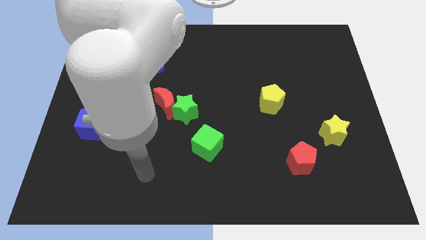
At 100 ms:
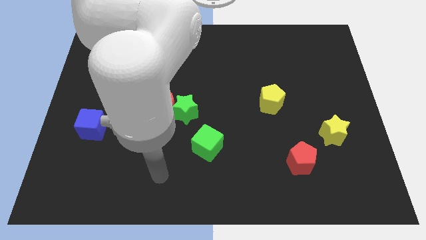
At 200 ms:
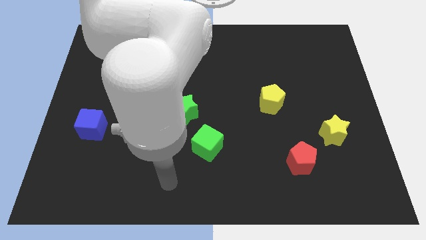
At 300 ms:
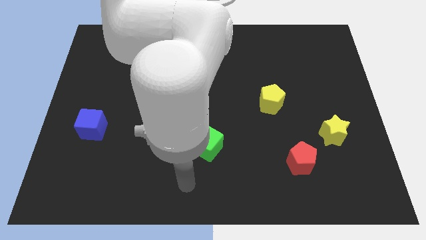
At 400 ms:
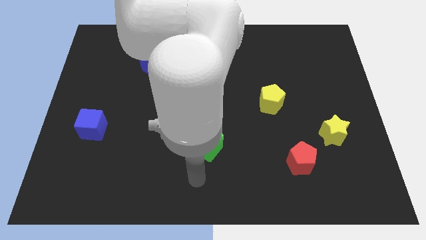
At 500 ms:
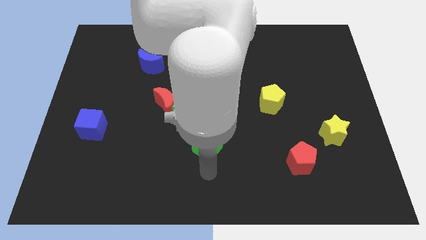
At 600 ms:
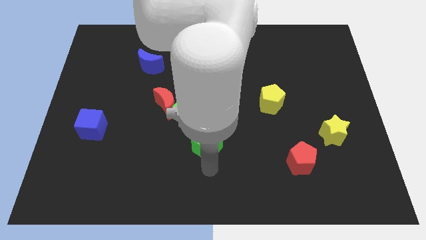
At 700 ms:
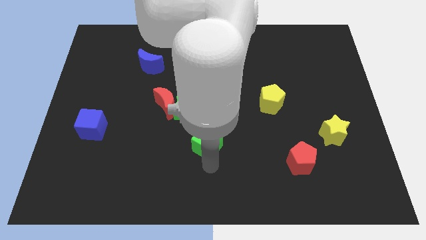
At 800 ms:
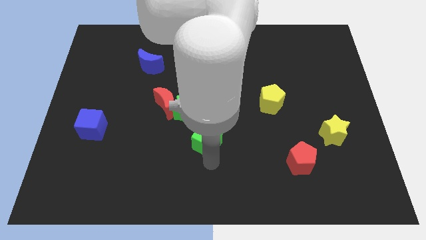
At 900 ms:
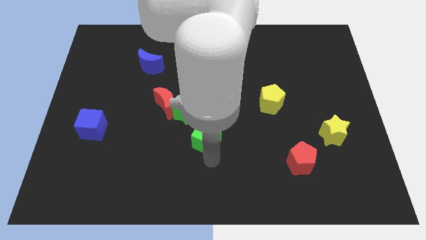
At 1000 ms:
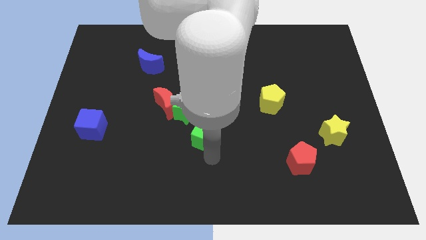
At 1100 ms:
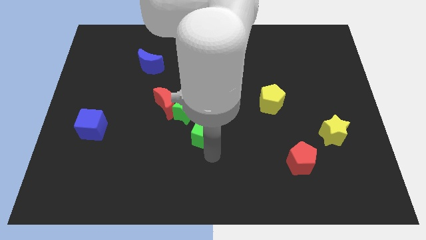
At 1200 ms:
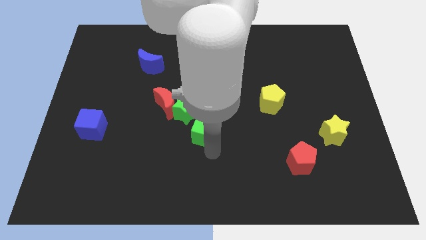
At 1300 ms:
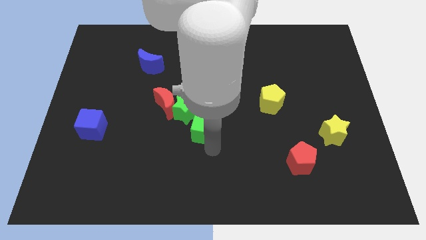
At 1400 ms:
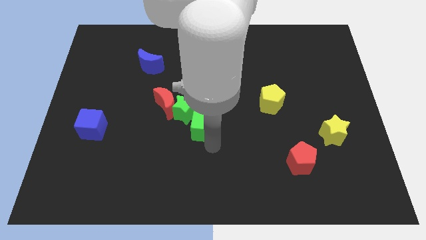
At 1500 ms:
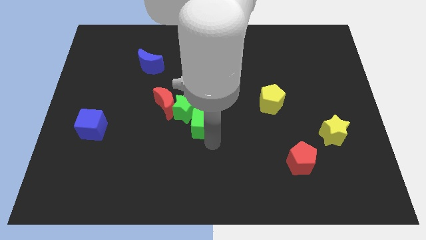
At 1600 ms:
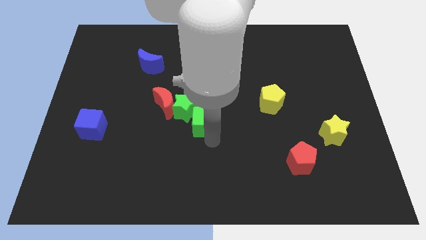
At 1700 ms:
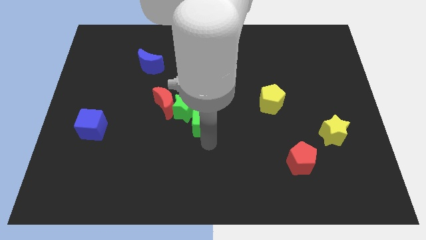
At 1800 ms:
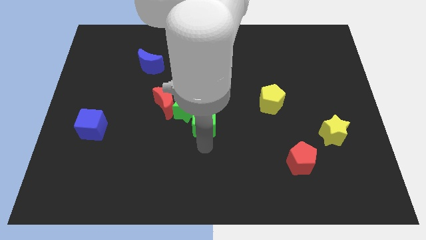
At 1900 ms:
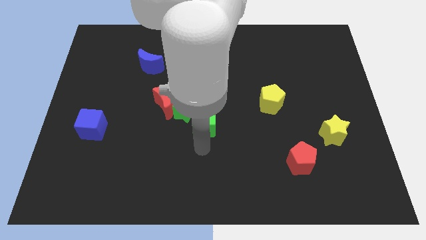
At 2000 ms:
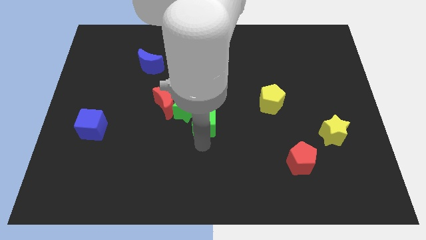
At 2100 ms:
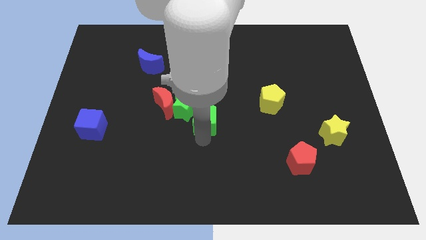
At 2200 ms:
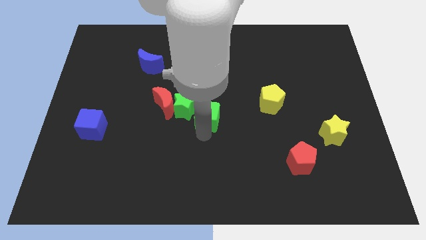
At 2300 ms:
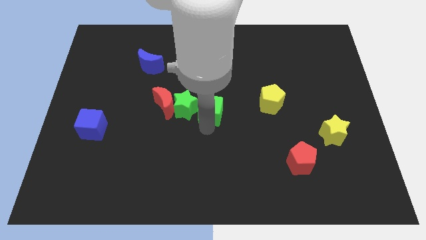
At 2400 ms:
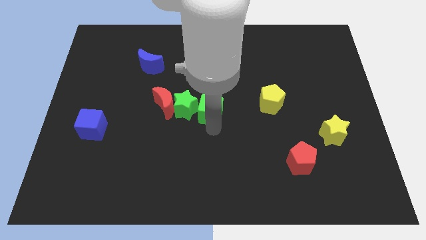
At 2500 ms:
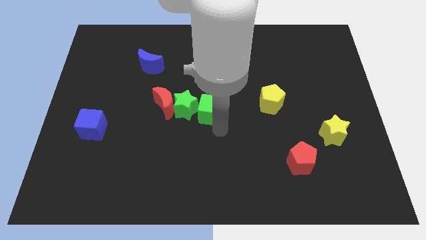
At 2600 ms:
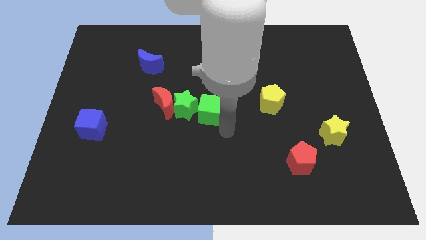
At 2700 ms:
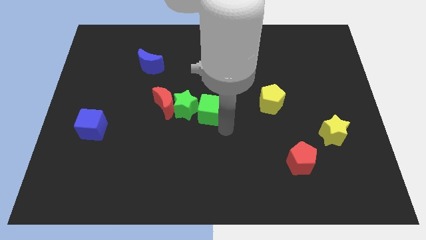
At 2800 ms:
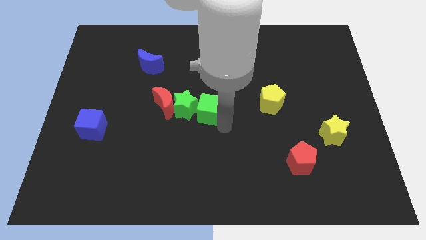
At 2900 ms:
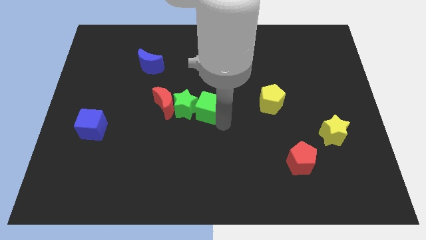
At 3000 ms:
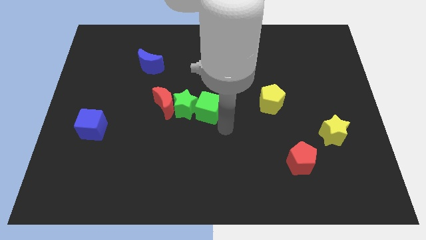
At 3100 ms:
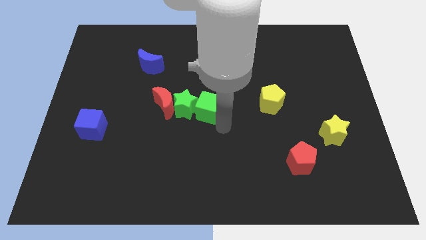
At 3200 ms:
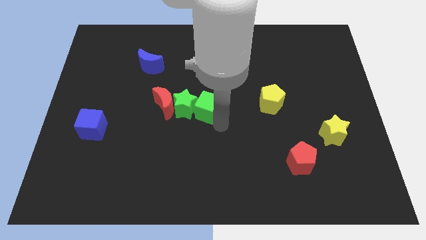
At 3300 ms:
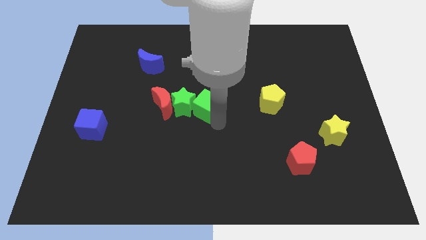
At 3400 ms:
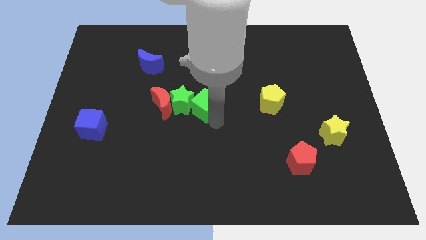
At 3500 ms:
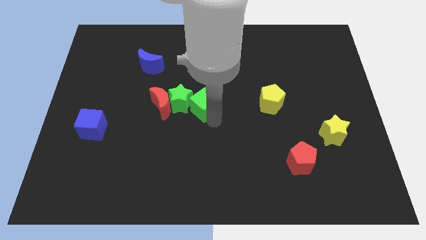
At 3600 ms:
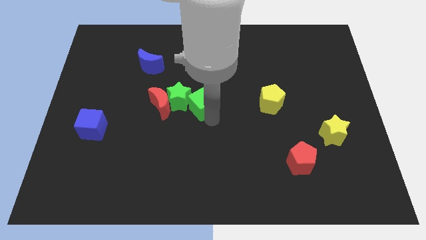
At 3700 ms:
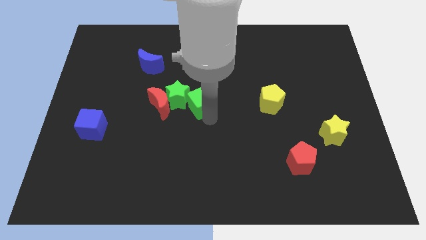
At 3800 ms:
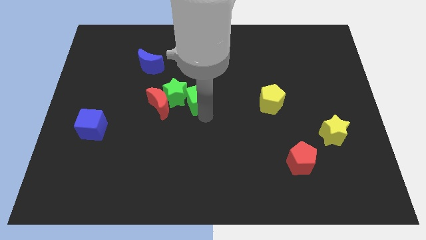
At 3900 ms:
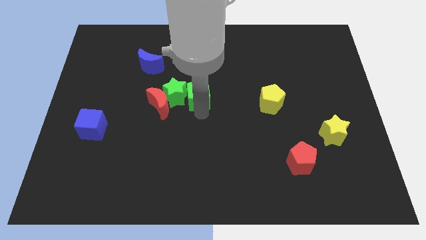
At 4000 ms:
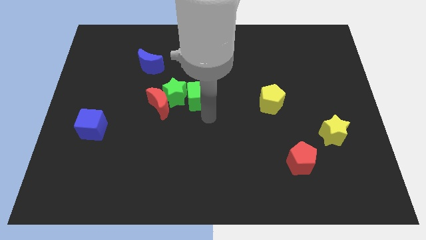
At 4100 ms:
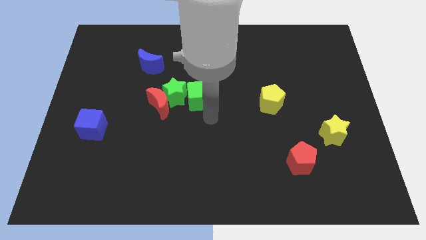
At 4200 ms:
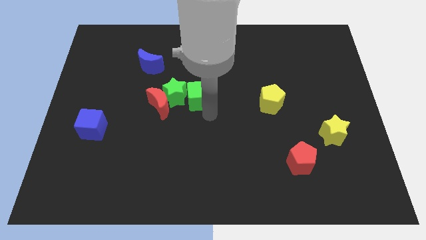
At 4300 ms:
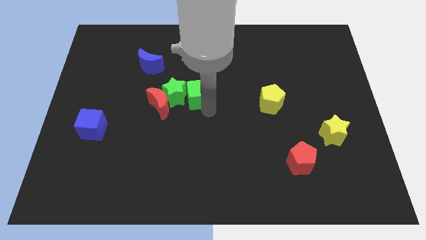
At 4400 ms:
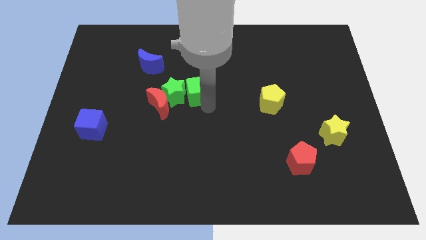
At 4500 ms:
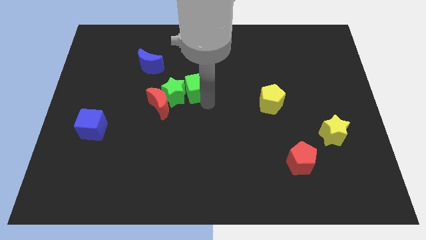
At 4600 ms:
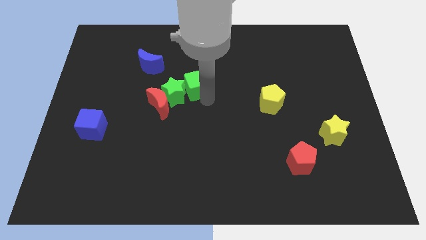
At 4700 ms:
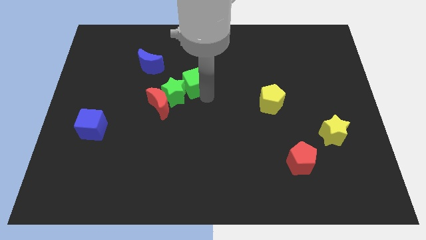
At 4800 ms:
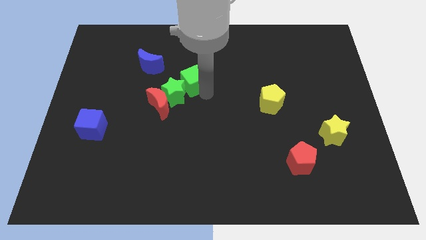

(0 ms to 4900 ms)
put the green cube to the top side of the green star

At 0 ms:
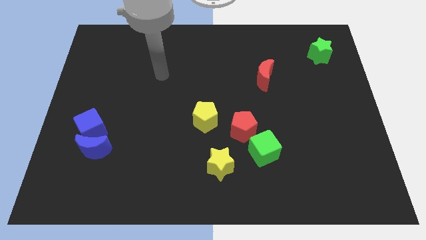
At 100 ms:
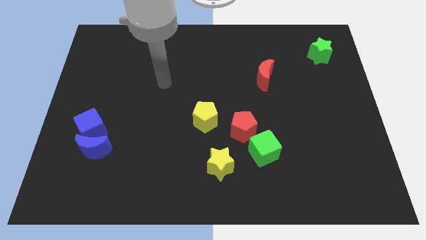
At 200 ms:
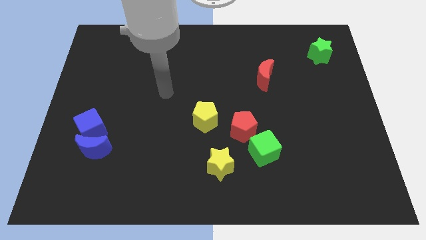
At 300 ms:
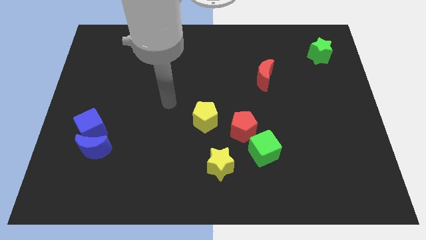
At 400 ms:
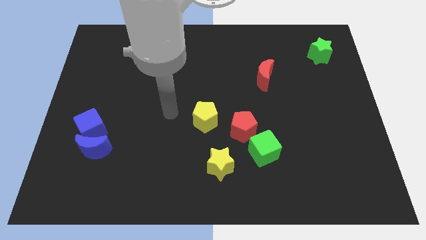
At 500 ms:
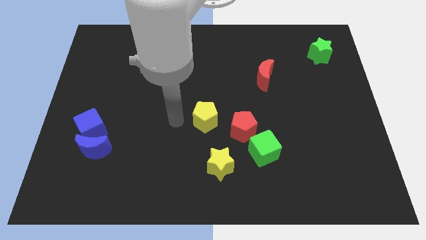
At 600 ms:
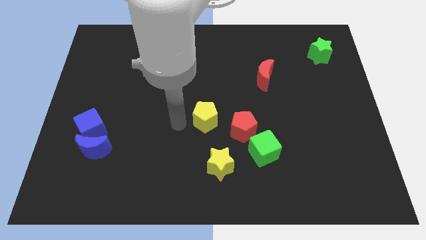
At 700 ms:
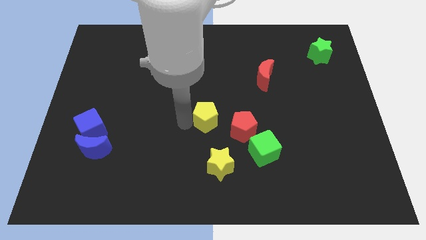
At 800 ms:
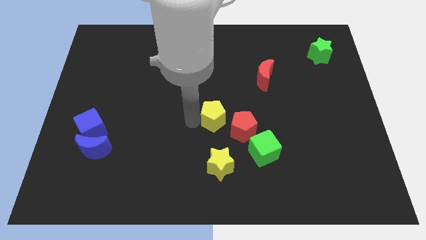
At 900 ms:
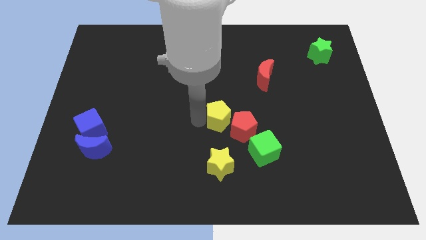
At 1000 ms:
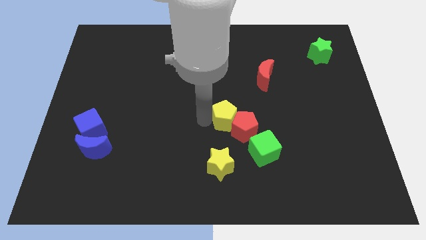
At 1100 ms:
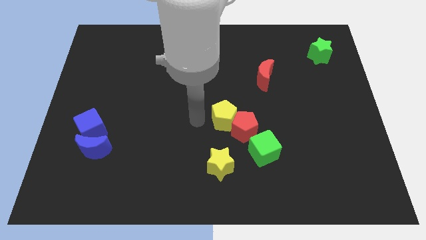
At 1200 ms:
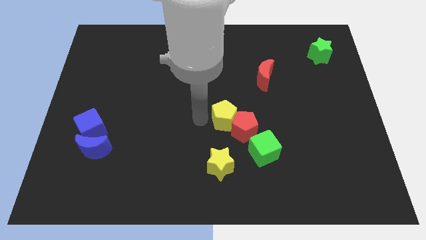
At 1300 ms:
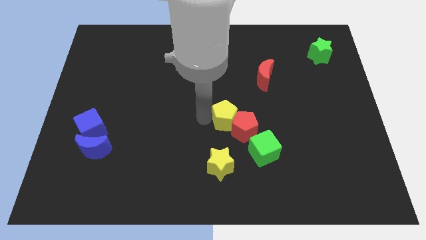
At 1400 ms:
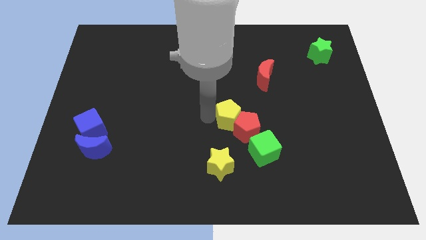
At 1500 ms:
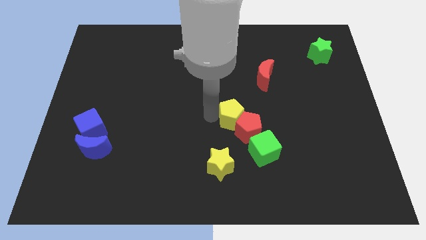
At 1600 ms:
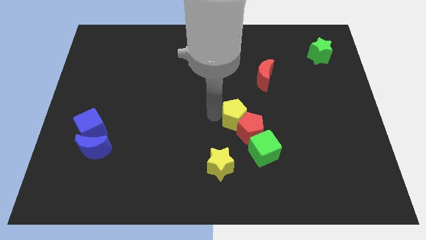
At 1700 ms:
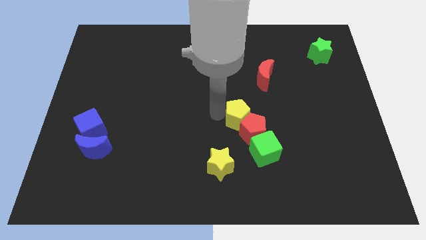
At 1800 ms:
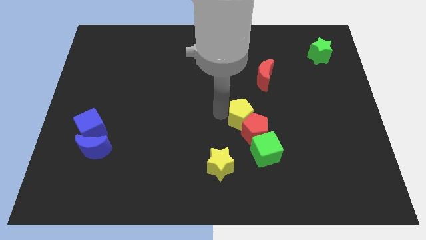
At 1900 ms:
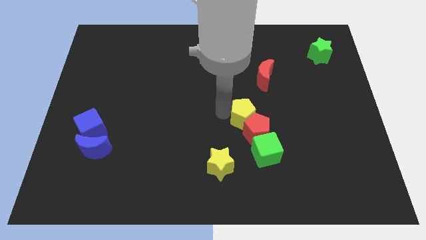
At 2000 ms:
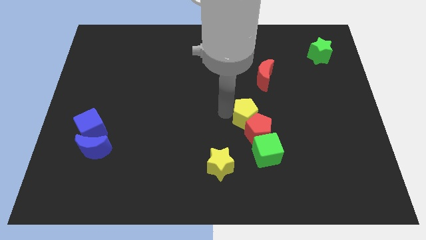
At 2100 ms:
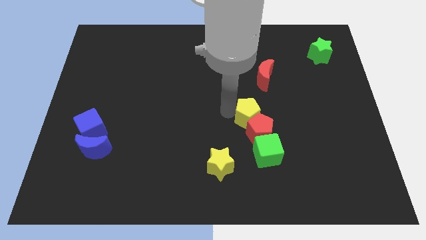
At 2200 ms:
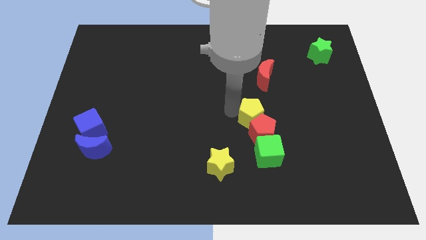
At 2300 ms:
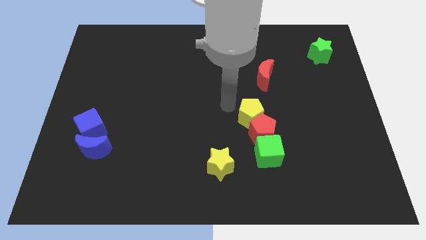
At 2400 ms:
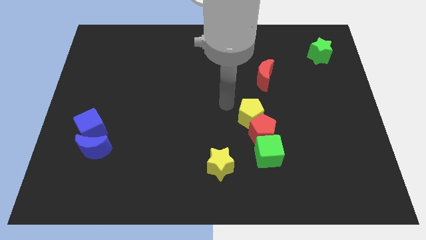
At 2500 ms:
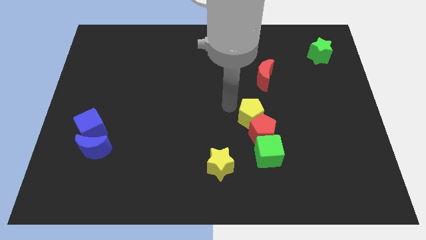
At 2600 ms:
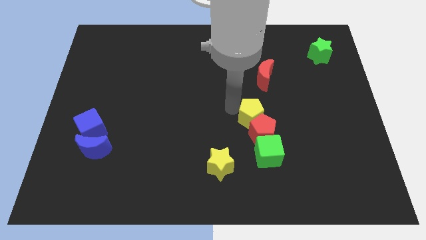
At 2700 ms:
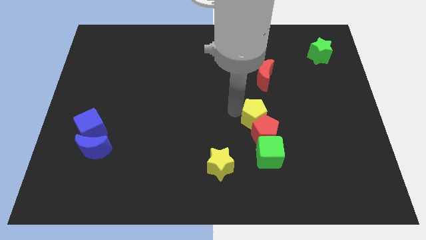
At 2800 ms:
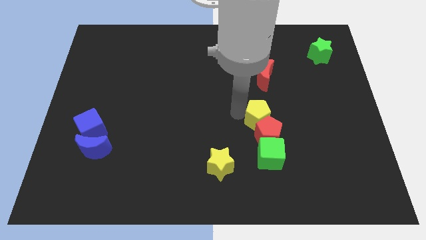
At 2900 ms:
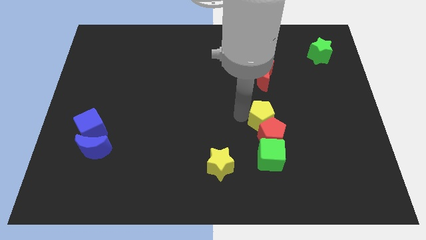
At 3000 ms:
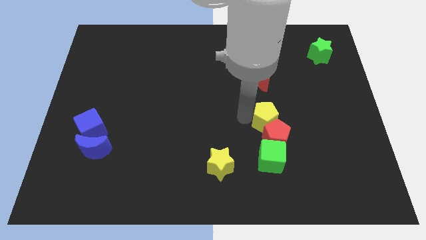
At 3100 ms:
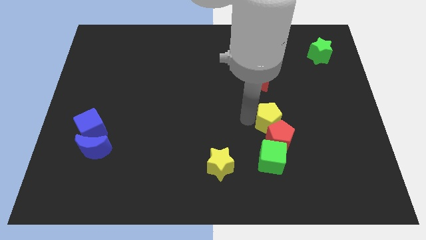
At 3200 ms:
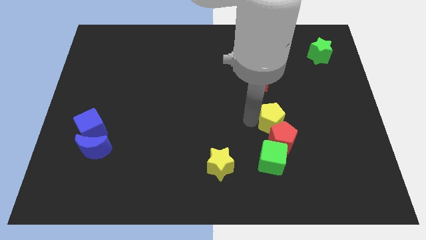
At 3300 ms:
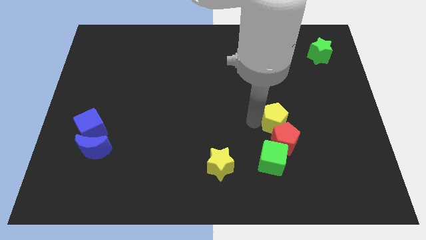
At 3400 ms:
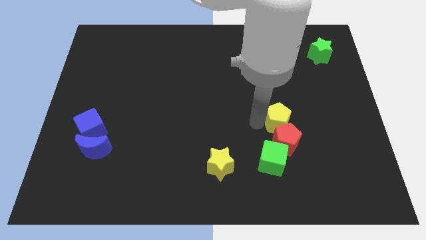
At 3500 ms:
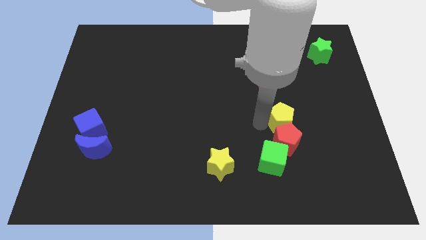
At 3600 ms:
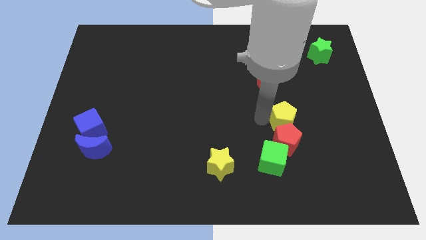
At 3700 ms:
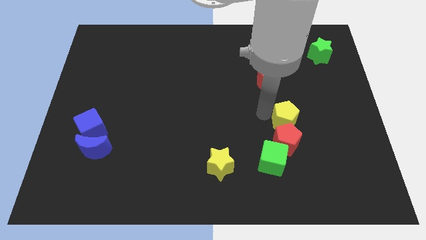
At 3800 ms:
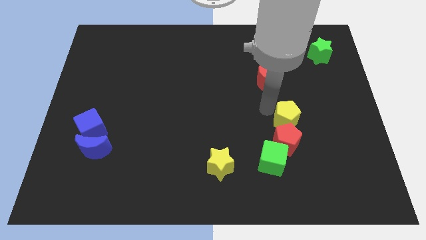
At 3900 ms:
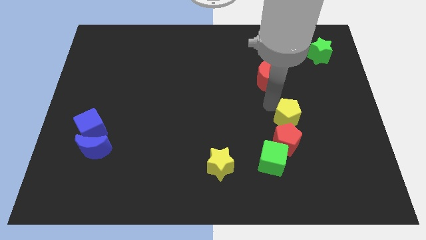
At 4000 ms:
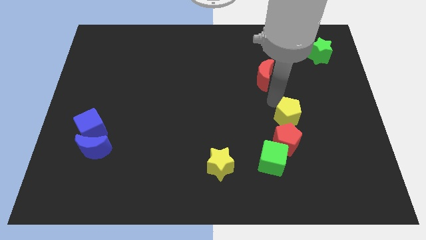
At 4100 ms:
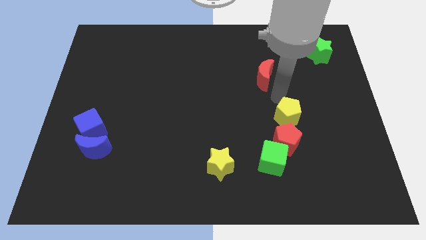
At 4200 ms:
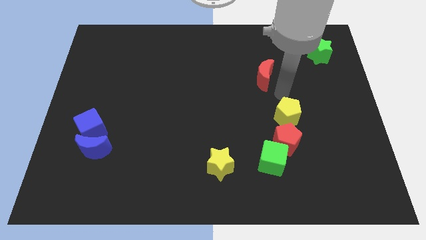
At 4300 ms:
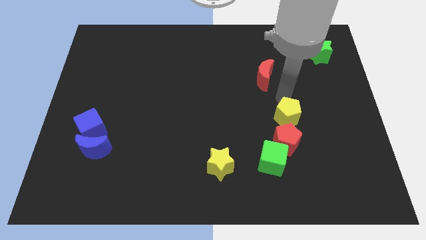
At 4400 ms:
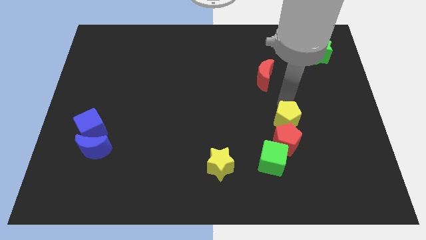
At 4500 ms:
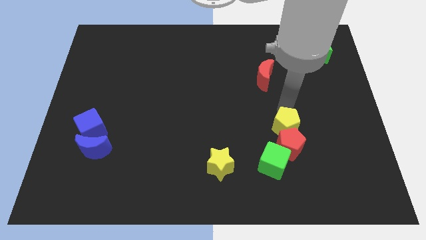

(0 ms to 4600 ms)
move the yellow pentagon to the top right of the green cube
